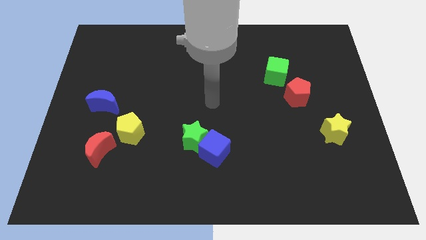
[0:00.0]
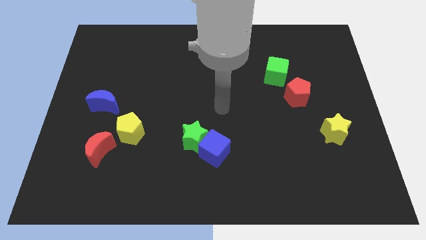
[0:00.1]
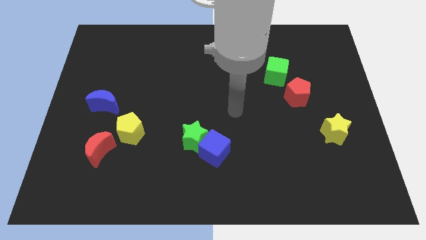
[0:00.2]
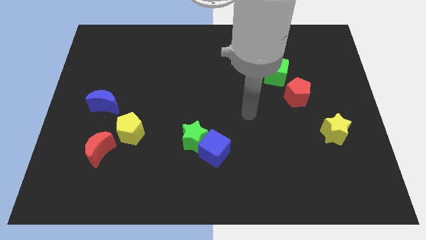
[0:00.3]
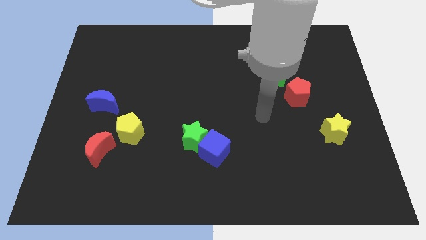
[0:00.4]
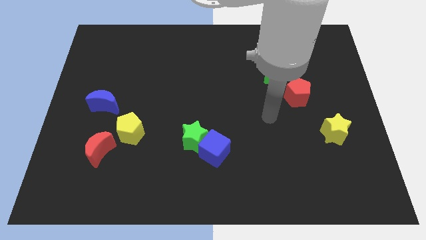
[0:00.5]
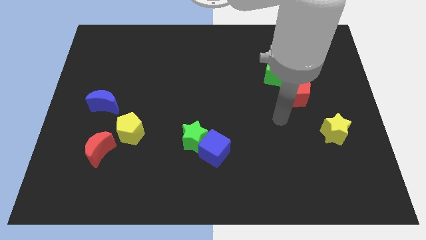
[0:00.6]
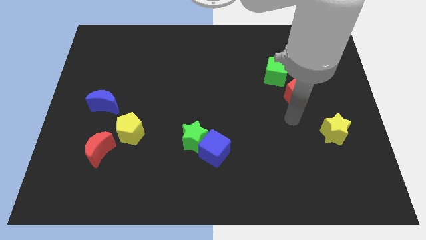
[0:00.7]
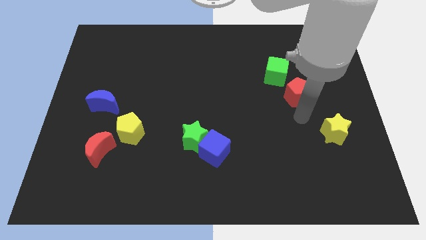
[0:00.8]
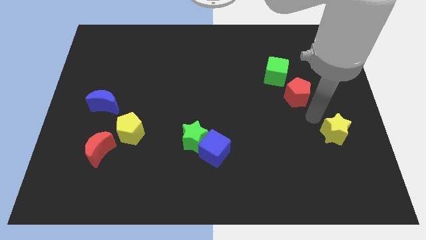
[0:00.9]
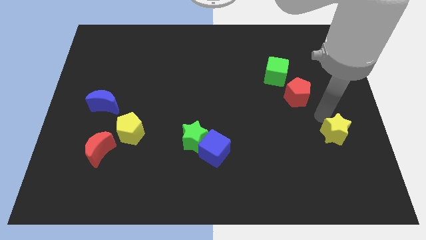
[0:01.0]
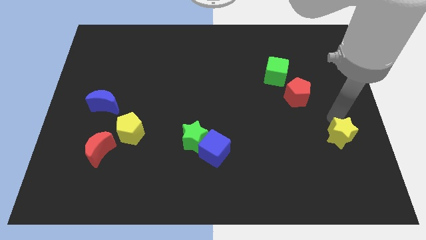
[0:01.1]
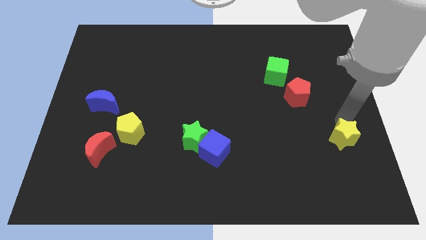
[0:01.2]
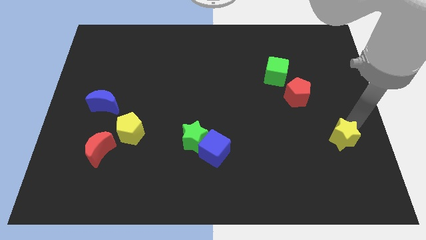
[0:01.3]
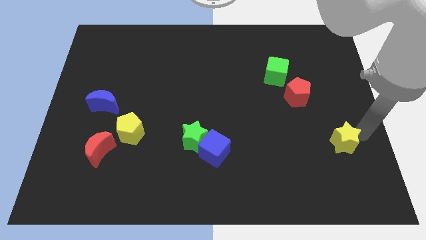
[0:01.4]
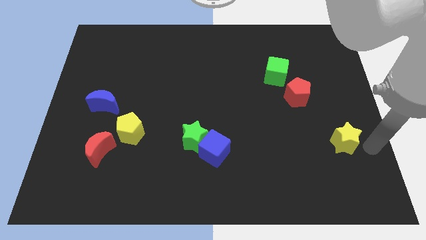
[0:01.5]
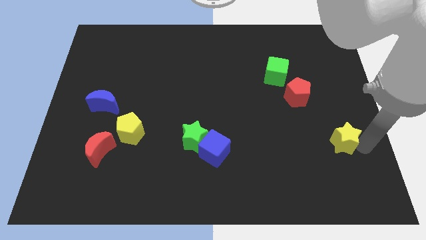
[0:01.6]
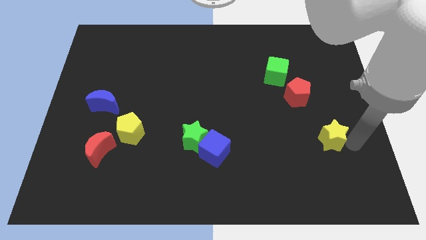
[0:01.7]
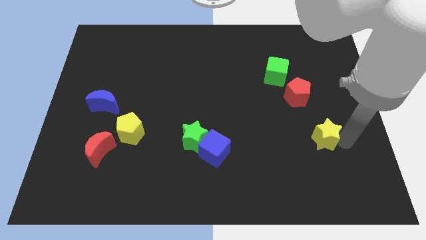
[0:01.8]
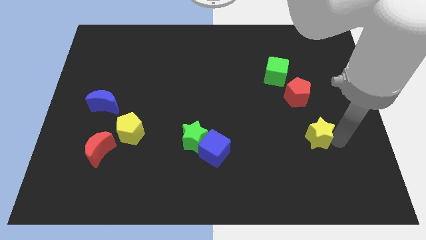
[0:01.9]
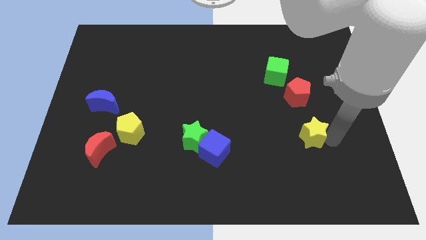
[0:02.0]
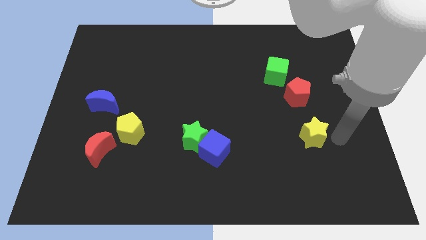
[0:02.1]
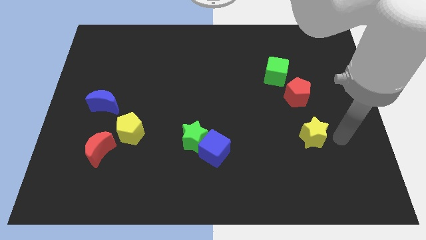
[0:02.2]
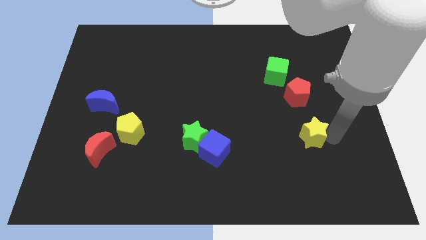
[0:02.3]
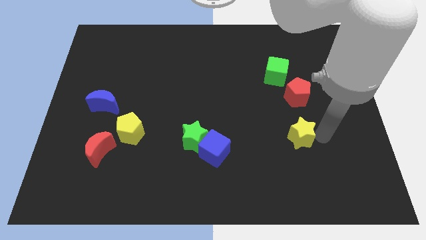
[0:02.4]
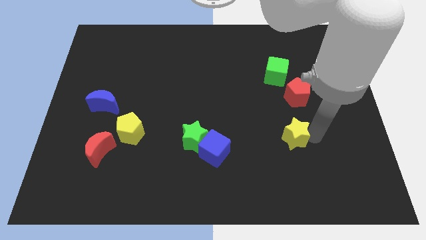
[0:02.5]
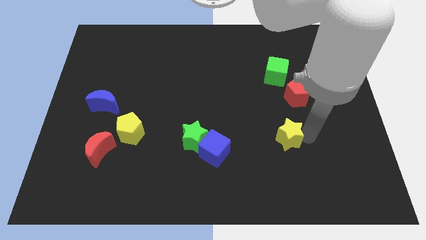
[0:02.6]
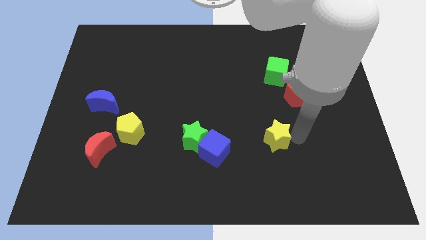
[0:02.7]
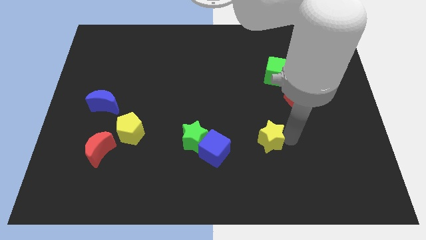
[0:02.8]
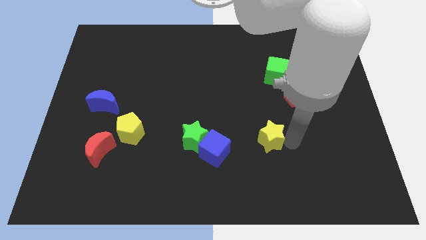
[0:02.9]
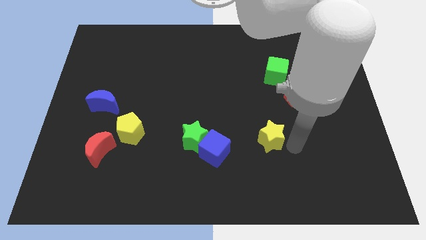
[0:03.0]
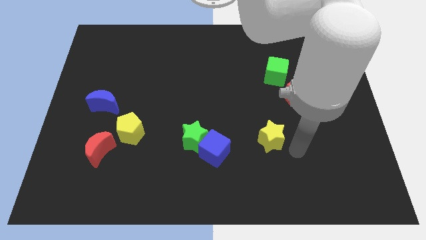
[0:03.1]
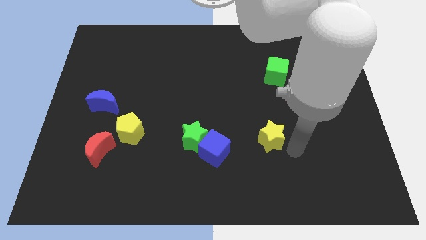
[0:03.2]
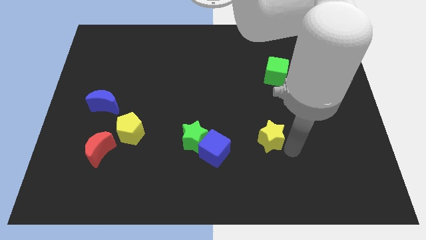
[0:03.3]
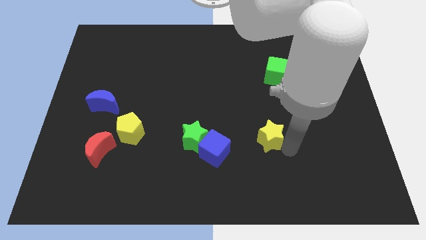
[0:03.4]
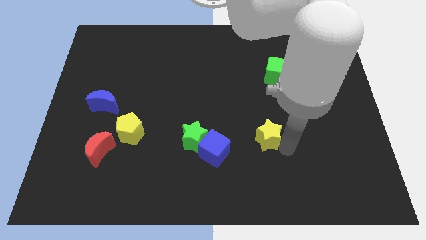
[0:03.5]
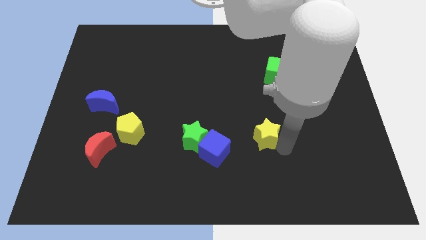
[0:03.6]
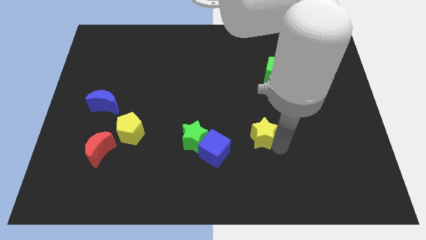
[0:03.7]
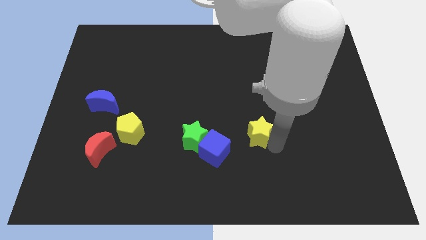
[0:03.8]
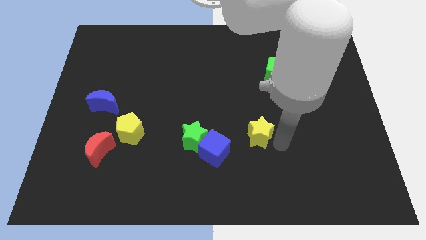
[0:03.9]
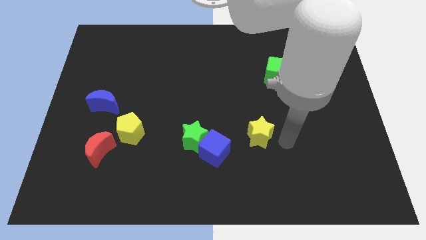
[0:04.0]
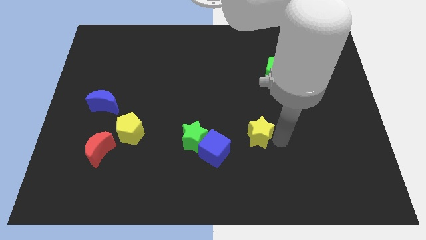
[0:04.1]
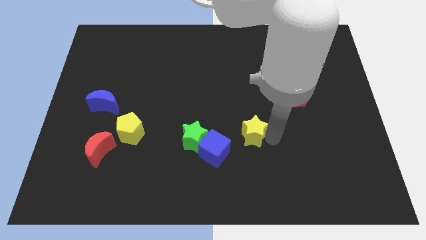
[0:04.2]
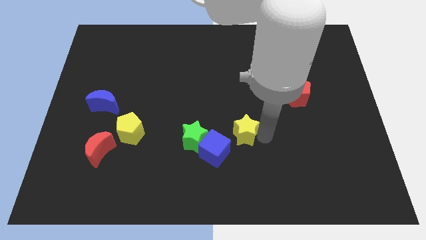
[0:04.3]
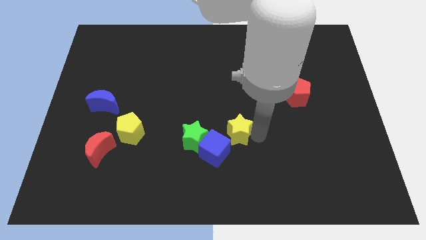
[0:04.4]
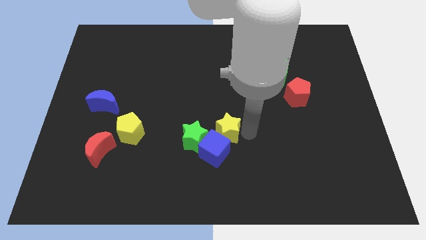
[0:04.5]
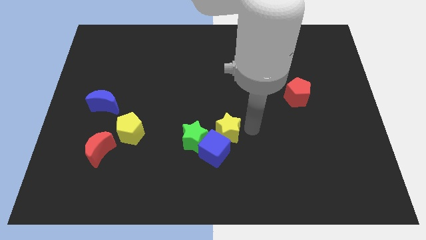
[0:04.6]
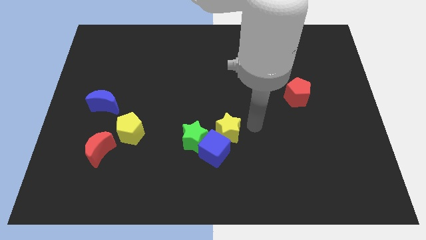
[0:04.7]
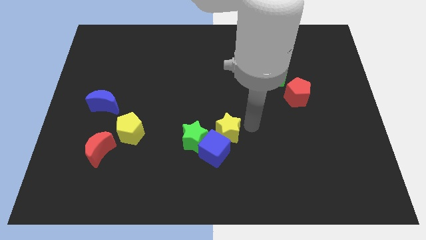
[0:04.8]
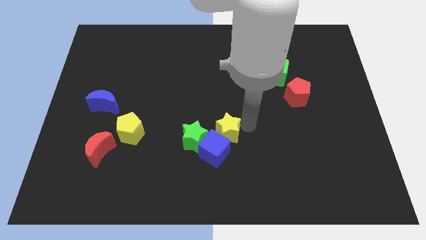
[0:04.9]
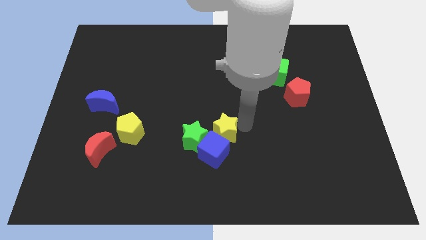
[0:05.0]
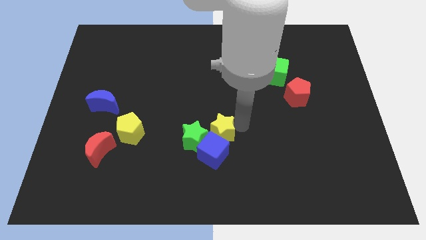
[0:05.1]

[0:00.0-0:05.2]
move the yellow star to the green star

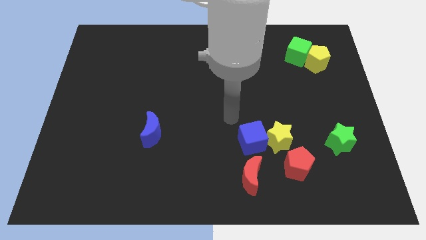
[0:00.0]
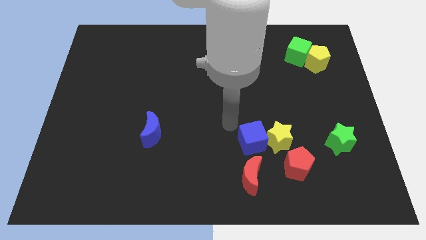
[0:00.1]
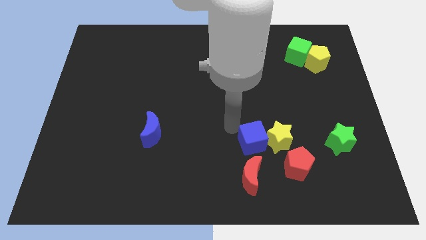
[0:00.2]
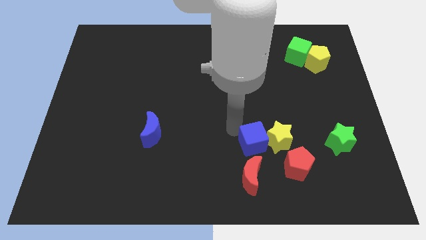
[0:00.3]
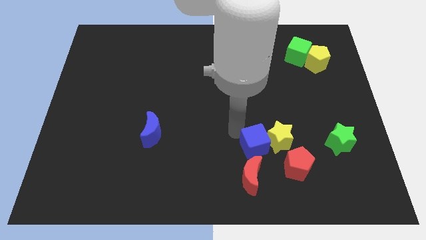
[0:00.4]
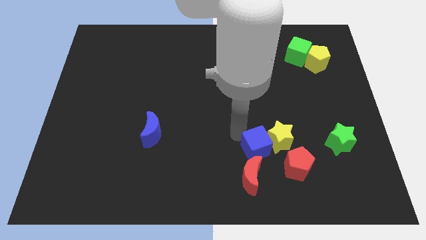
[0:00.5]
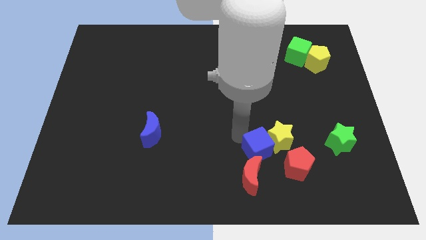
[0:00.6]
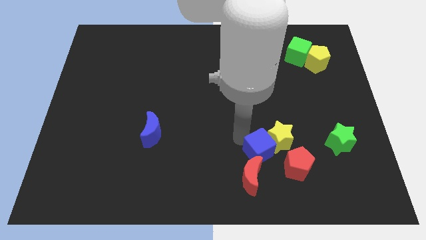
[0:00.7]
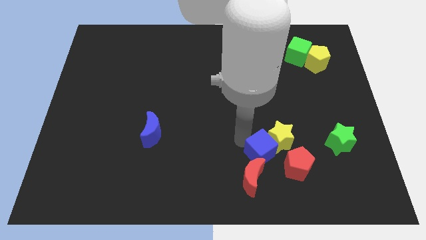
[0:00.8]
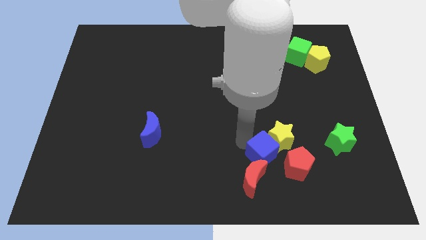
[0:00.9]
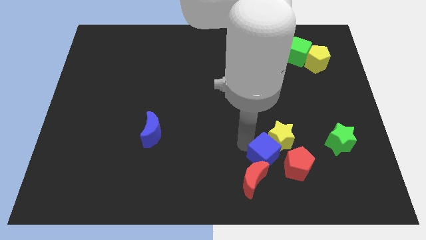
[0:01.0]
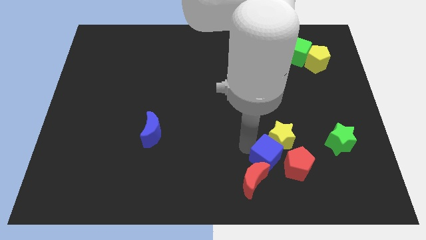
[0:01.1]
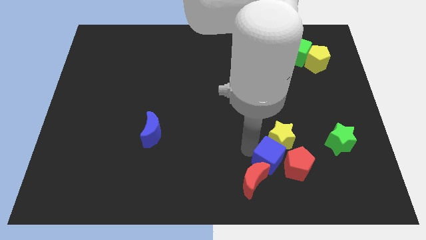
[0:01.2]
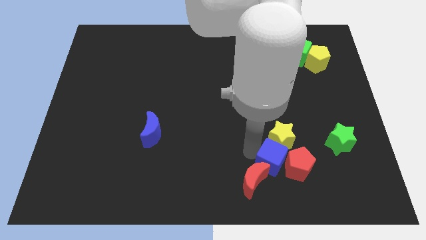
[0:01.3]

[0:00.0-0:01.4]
move the blue cube close to the red pentagon

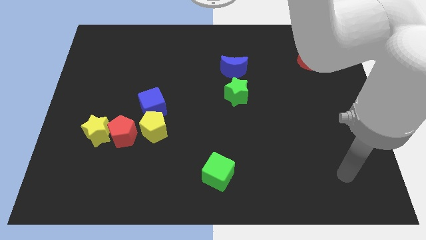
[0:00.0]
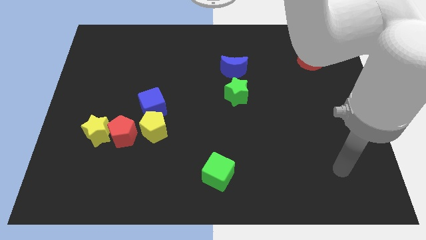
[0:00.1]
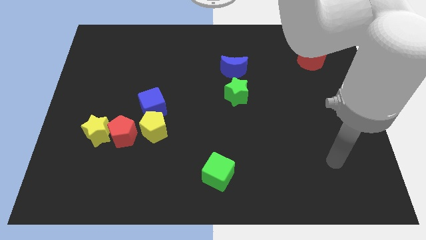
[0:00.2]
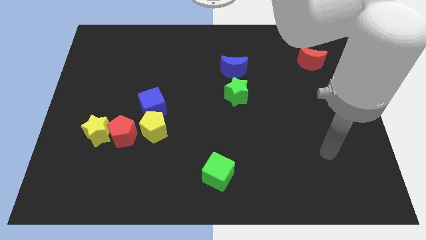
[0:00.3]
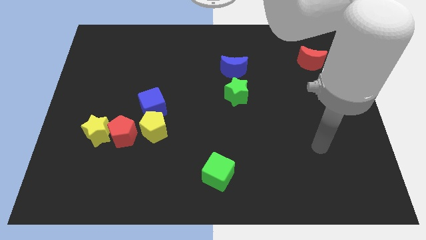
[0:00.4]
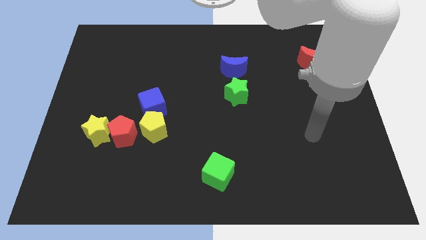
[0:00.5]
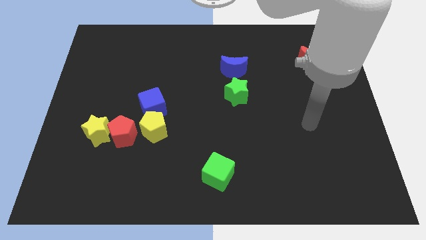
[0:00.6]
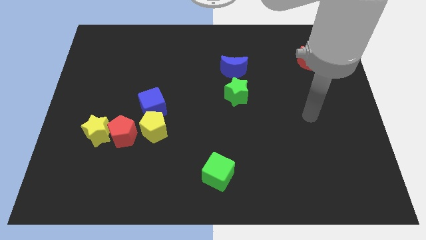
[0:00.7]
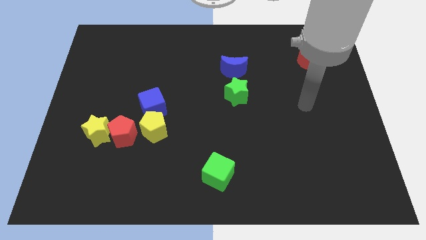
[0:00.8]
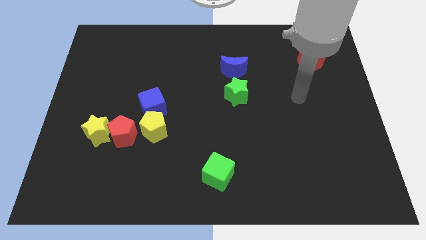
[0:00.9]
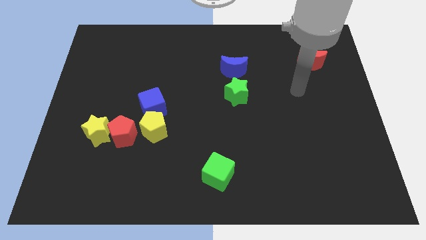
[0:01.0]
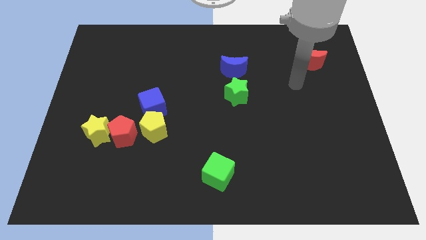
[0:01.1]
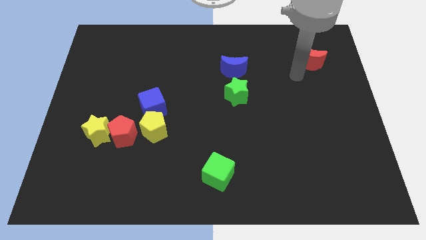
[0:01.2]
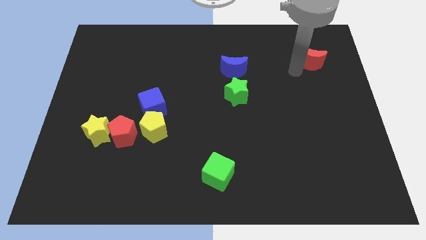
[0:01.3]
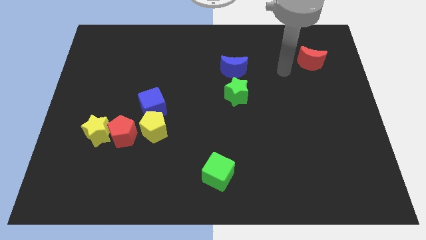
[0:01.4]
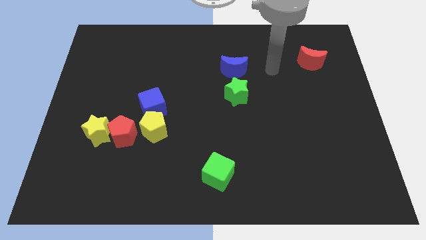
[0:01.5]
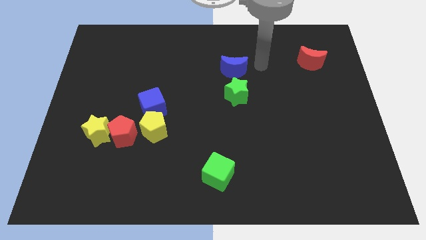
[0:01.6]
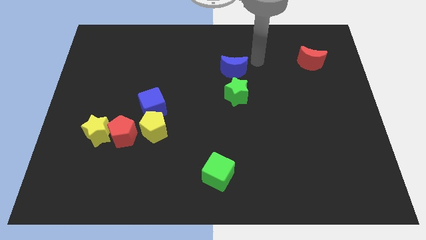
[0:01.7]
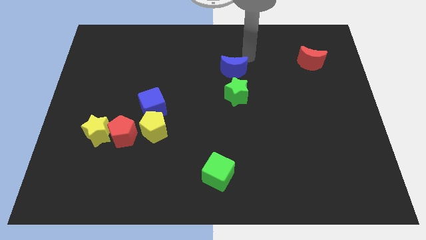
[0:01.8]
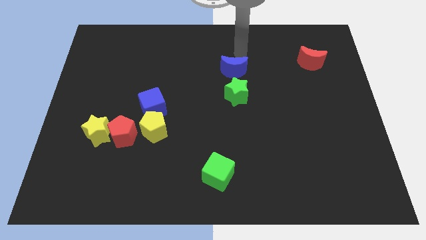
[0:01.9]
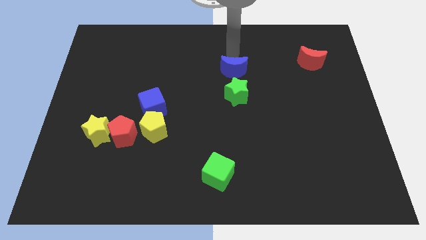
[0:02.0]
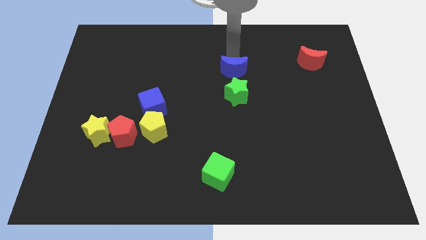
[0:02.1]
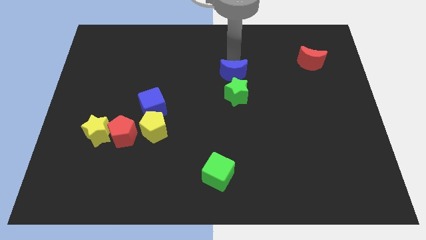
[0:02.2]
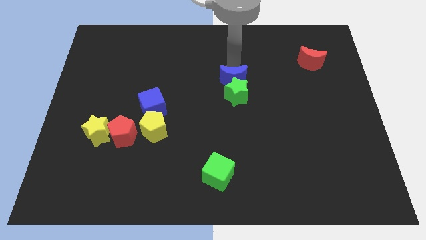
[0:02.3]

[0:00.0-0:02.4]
put the blue moon next to the green star
